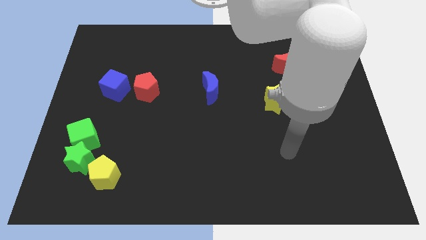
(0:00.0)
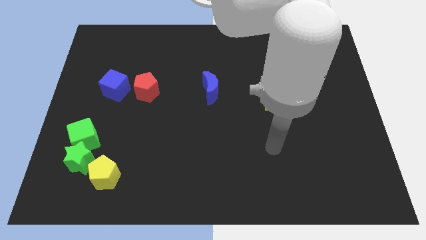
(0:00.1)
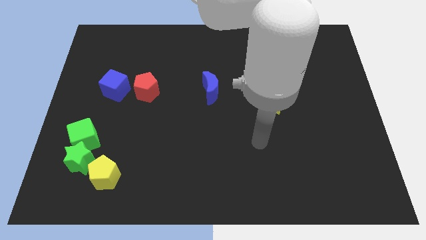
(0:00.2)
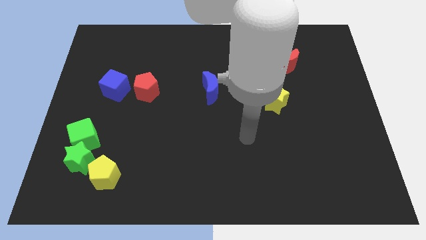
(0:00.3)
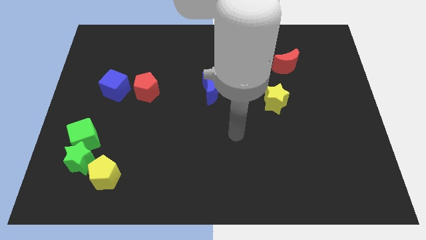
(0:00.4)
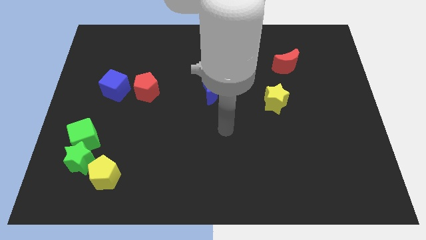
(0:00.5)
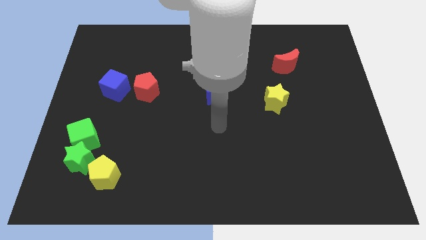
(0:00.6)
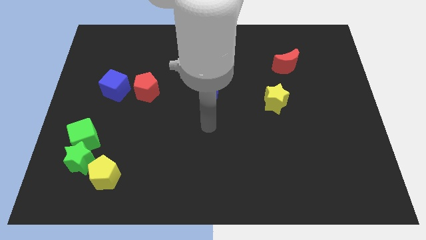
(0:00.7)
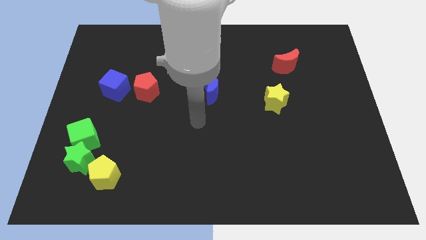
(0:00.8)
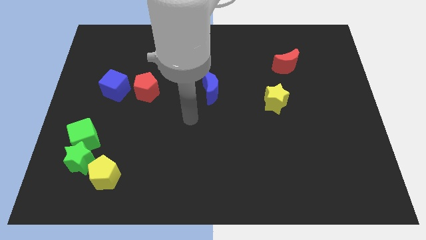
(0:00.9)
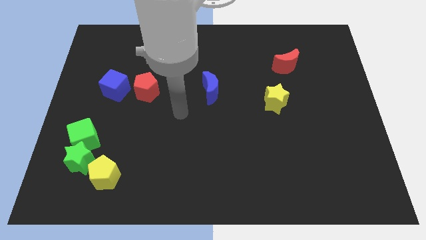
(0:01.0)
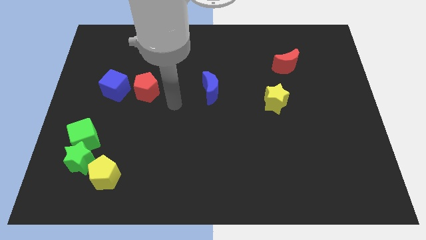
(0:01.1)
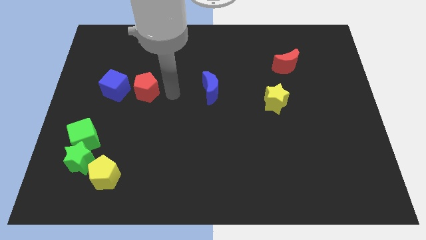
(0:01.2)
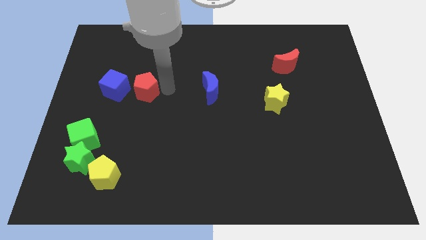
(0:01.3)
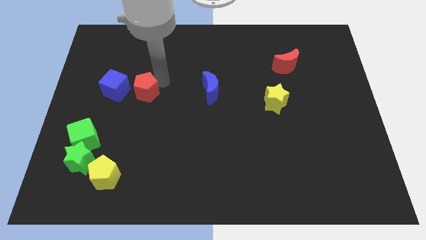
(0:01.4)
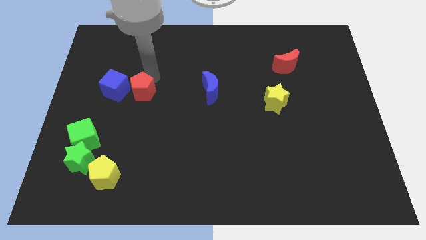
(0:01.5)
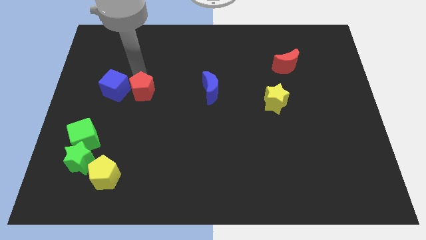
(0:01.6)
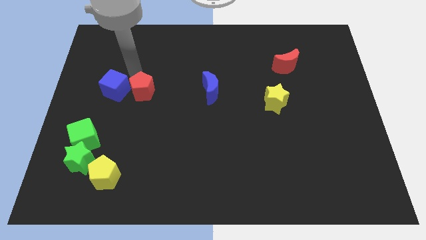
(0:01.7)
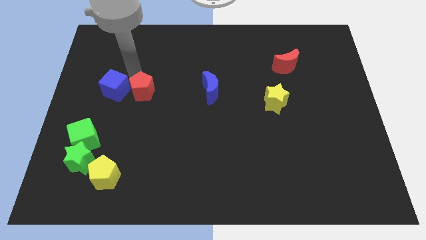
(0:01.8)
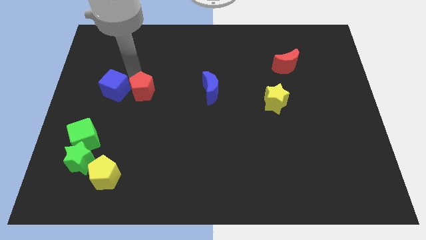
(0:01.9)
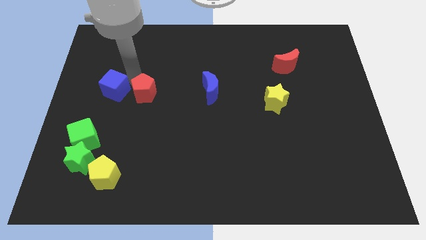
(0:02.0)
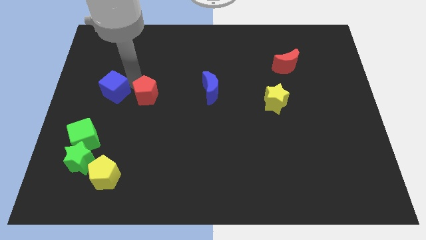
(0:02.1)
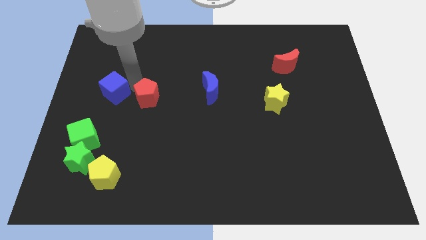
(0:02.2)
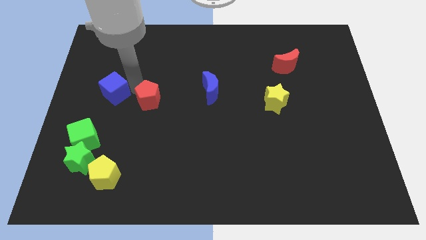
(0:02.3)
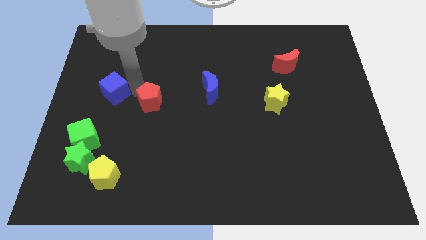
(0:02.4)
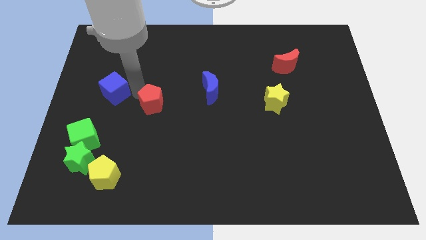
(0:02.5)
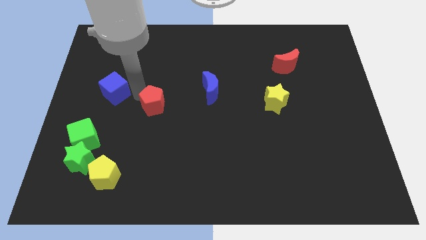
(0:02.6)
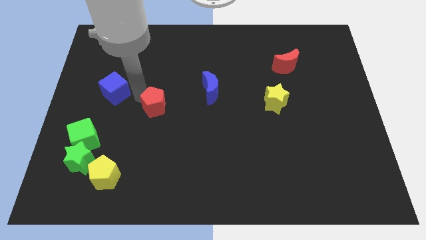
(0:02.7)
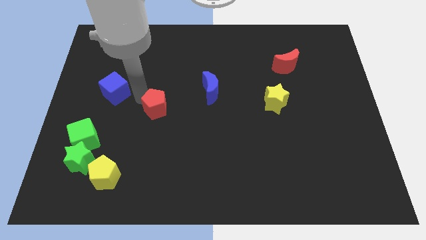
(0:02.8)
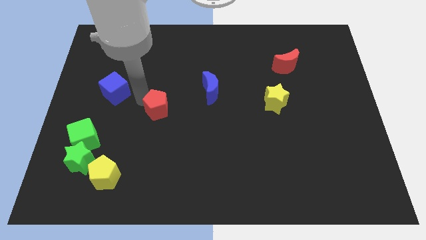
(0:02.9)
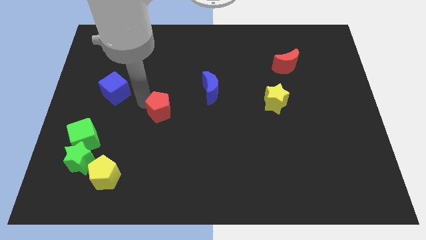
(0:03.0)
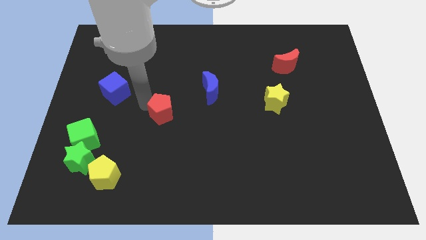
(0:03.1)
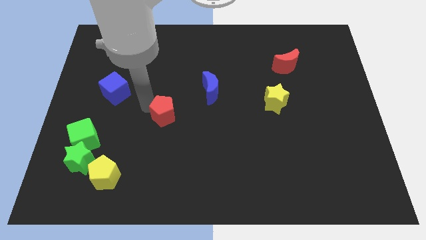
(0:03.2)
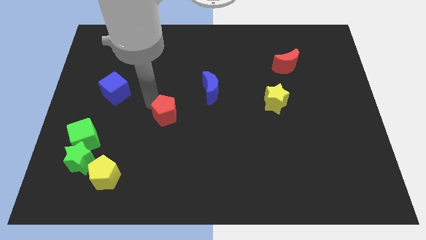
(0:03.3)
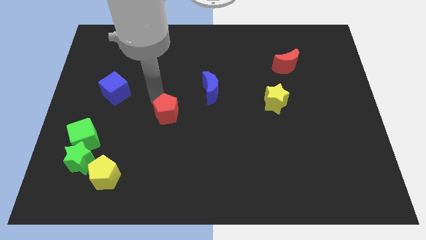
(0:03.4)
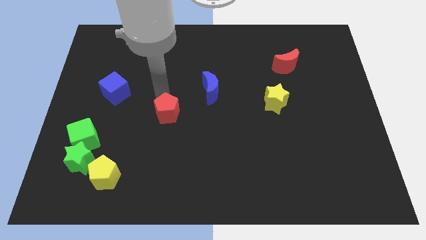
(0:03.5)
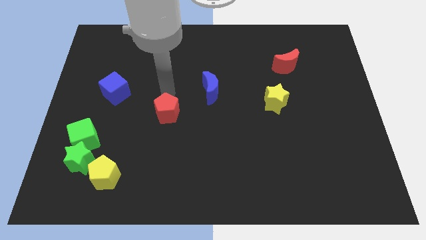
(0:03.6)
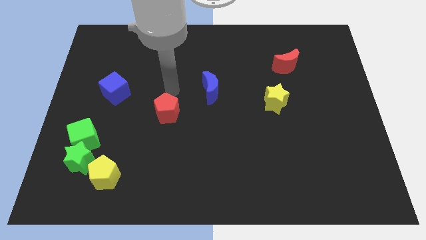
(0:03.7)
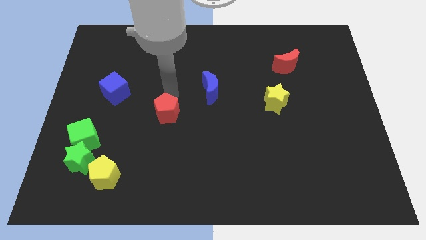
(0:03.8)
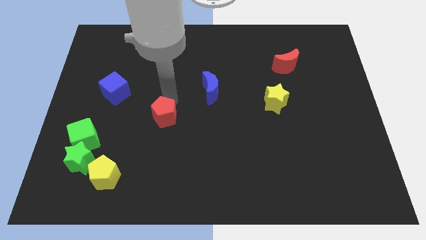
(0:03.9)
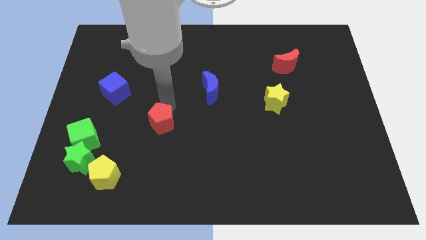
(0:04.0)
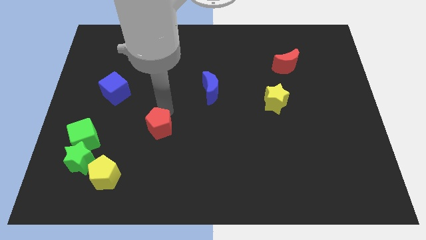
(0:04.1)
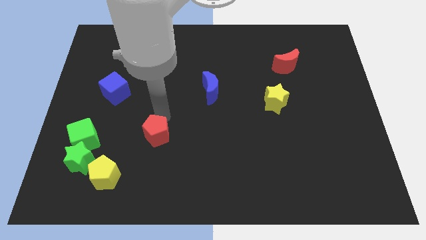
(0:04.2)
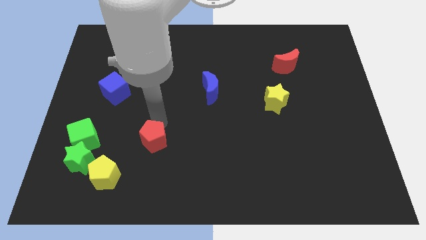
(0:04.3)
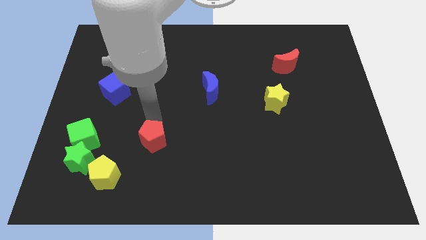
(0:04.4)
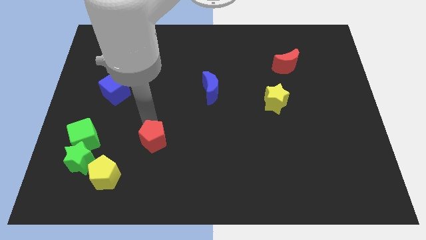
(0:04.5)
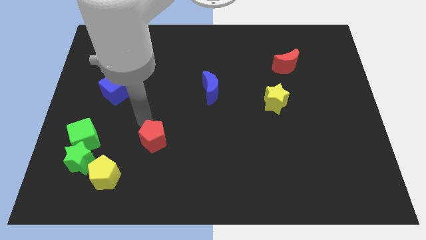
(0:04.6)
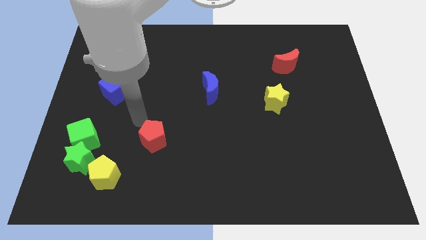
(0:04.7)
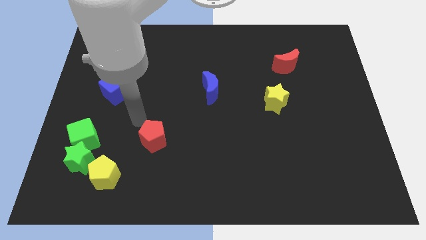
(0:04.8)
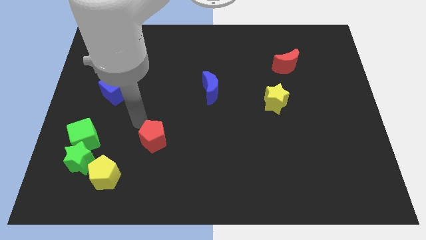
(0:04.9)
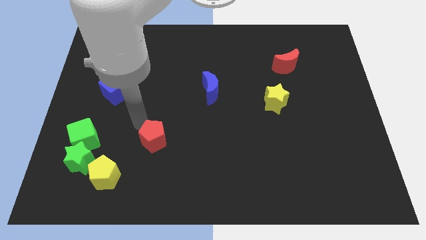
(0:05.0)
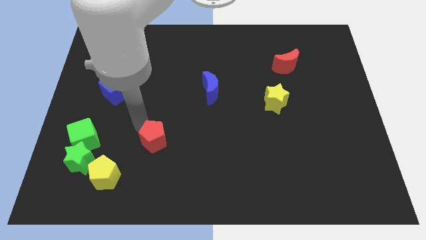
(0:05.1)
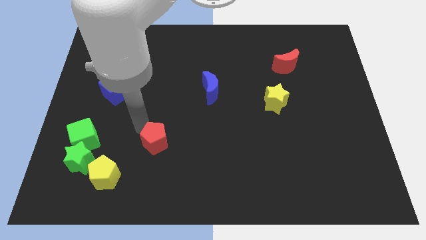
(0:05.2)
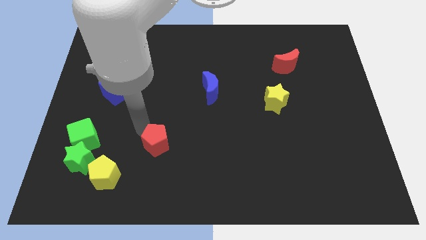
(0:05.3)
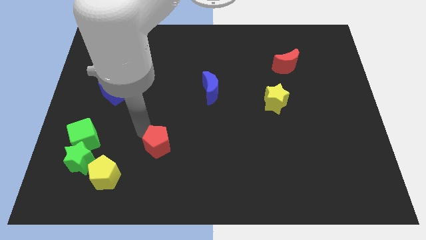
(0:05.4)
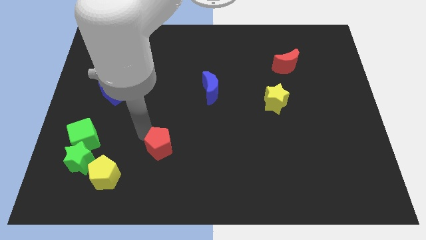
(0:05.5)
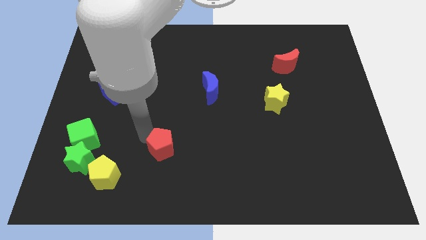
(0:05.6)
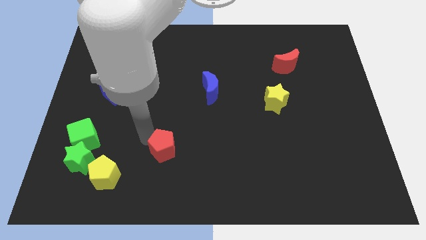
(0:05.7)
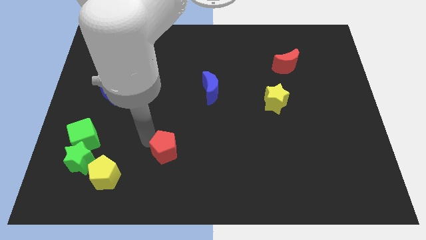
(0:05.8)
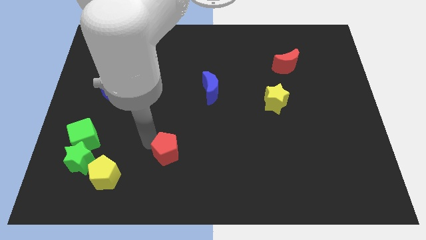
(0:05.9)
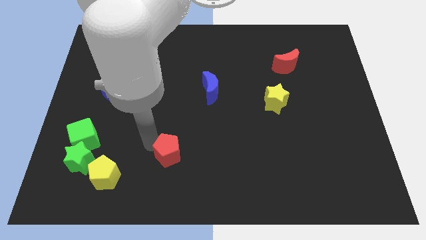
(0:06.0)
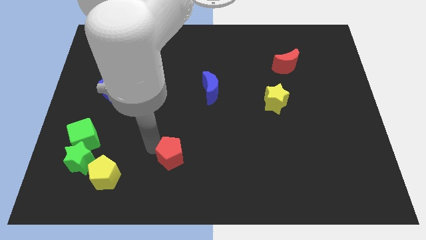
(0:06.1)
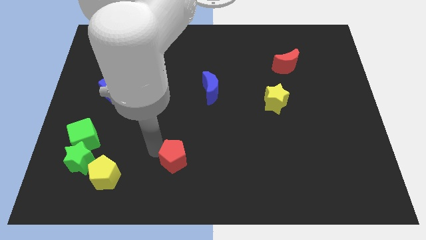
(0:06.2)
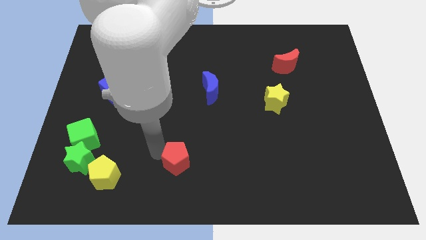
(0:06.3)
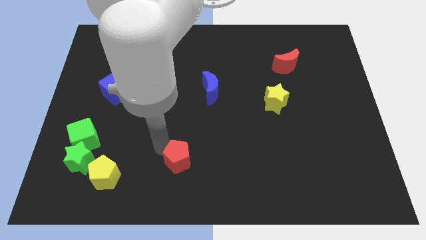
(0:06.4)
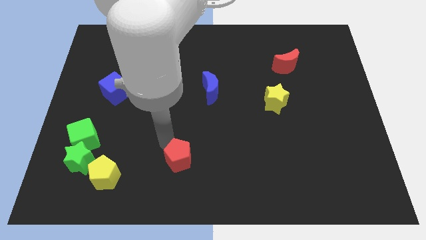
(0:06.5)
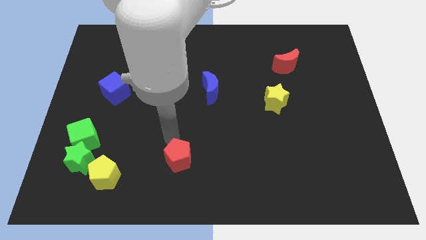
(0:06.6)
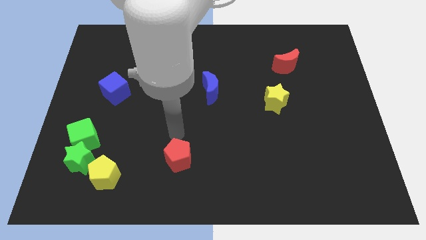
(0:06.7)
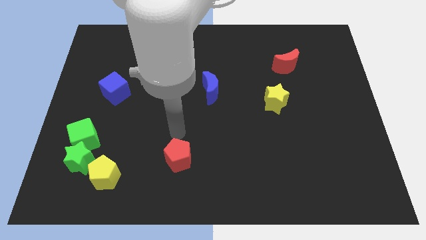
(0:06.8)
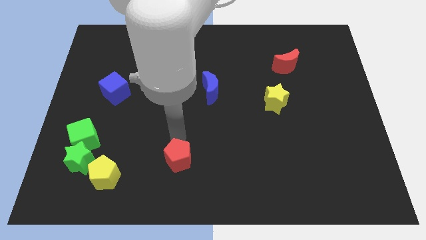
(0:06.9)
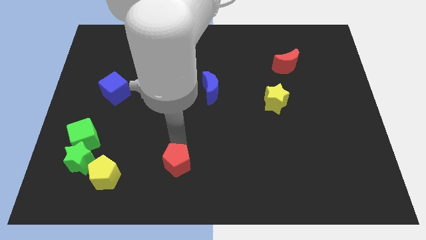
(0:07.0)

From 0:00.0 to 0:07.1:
slide the red pentagon to the bottom side
